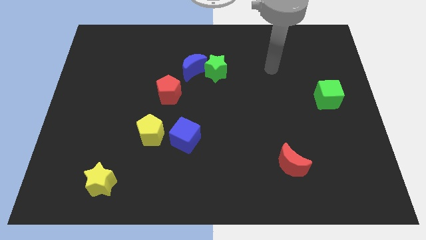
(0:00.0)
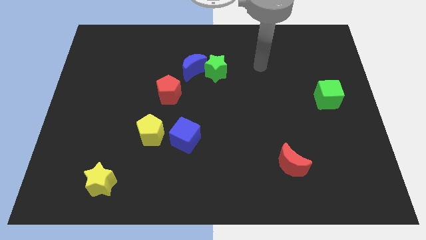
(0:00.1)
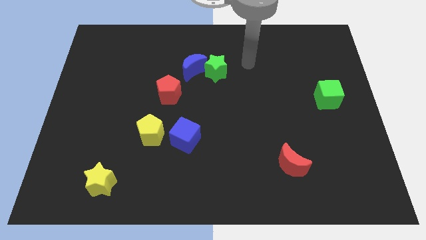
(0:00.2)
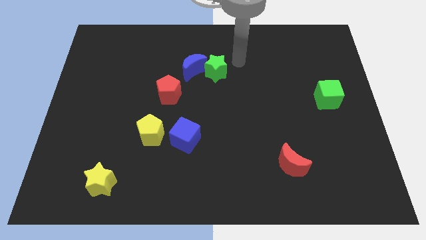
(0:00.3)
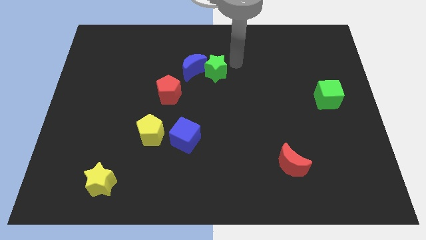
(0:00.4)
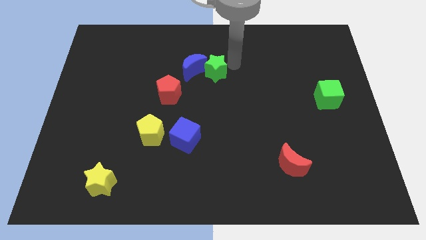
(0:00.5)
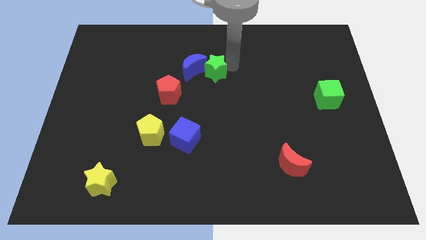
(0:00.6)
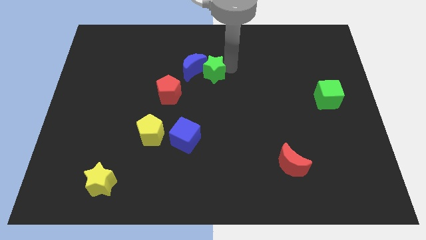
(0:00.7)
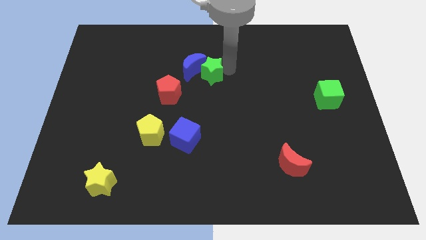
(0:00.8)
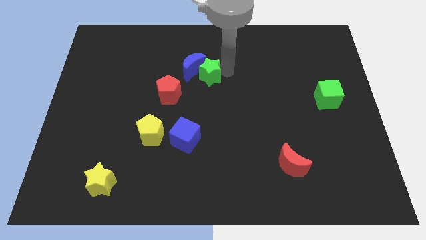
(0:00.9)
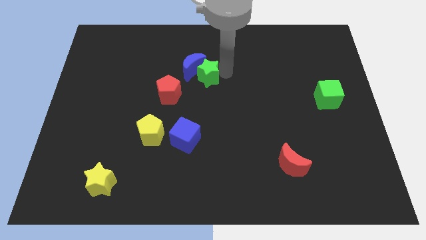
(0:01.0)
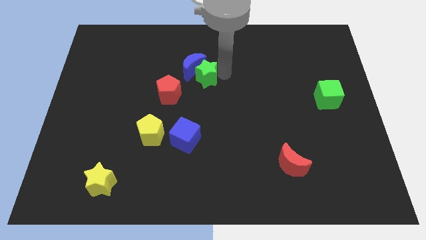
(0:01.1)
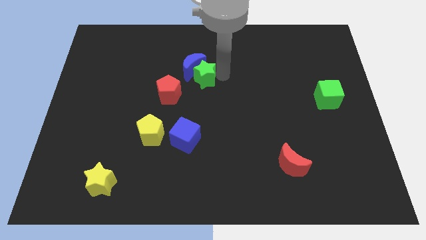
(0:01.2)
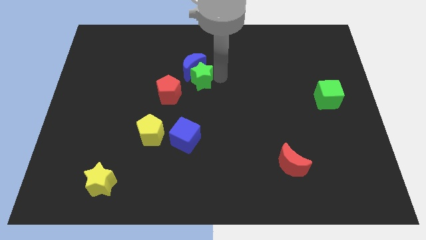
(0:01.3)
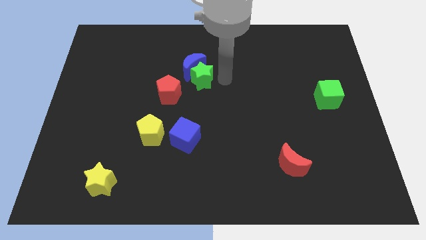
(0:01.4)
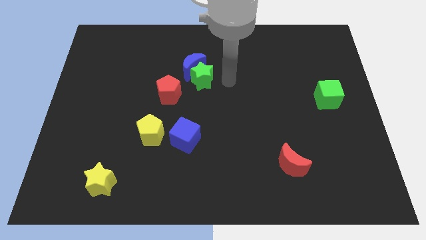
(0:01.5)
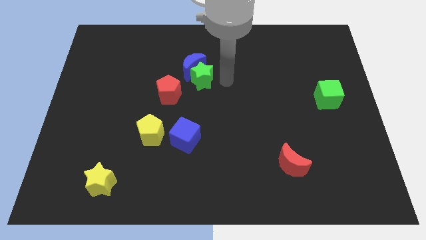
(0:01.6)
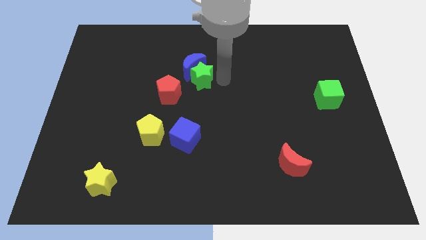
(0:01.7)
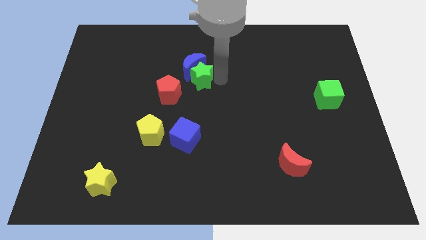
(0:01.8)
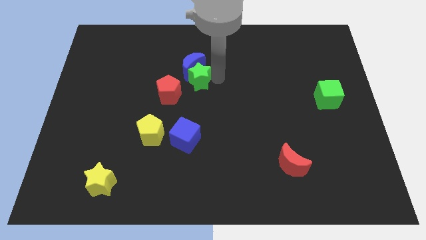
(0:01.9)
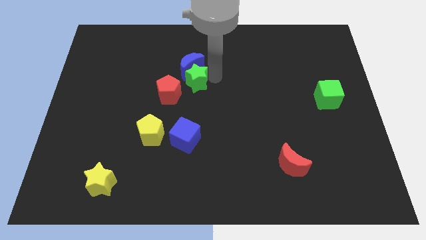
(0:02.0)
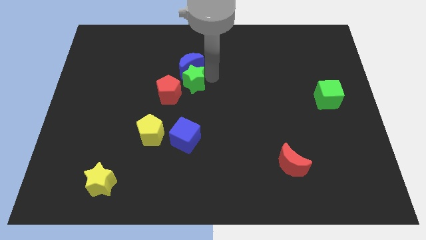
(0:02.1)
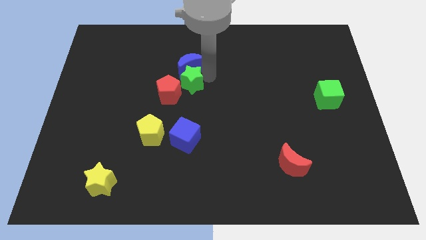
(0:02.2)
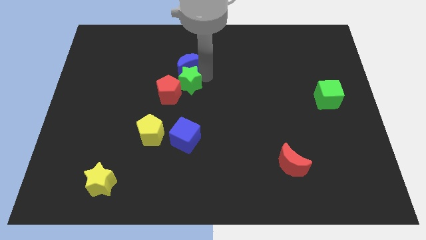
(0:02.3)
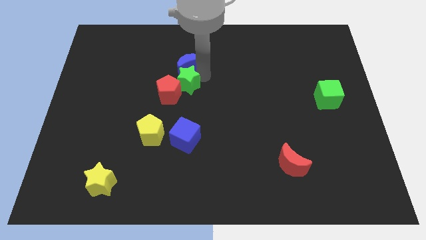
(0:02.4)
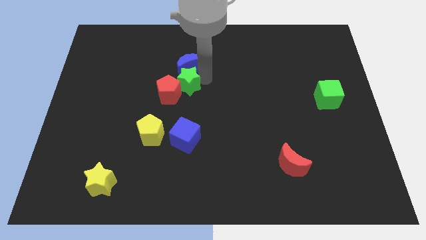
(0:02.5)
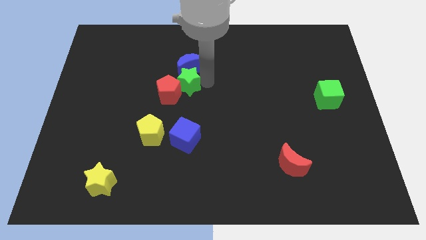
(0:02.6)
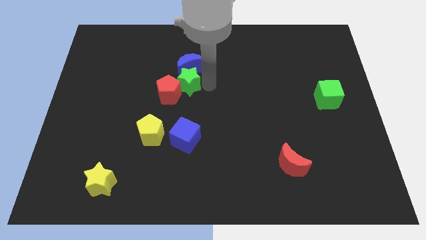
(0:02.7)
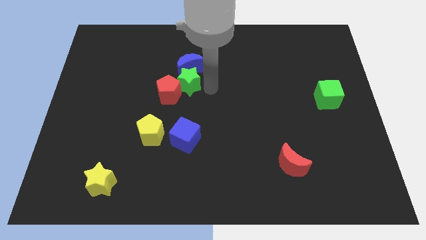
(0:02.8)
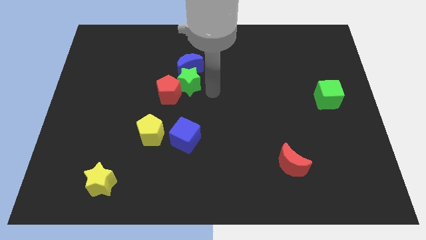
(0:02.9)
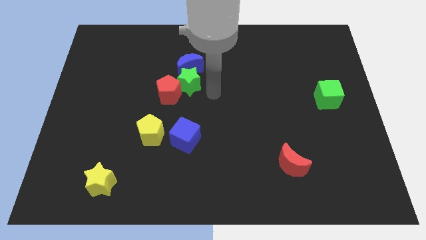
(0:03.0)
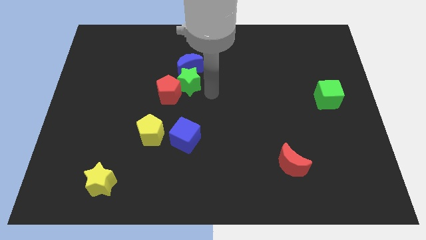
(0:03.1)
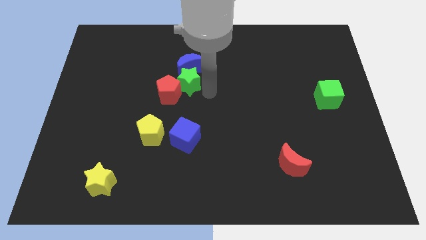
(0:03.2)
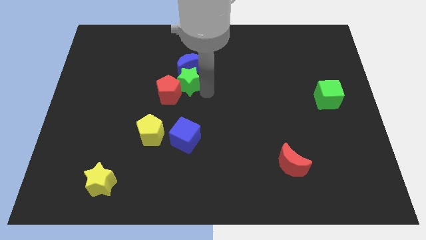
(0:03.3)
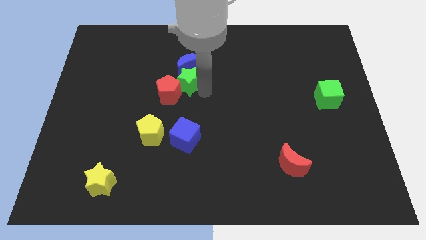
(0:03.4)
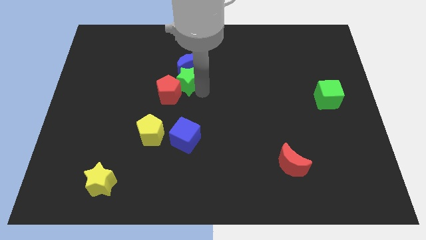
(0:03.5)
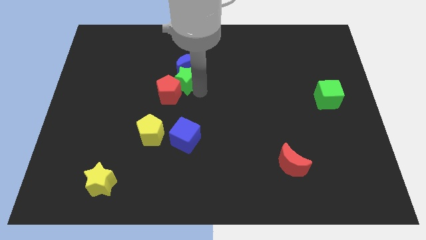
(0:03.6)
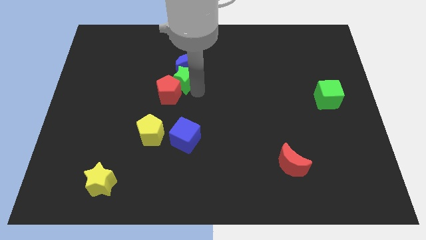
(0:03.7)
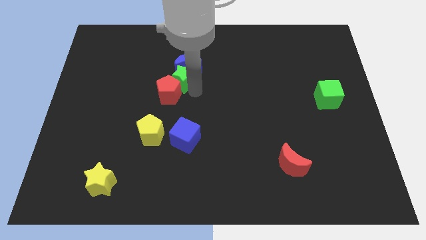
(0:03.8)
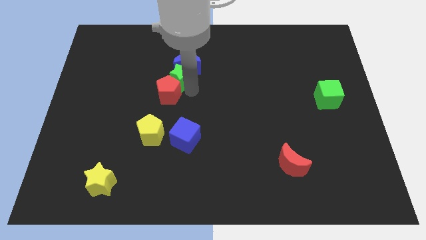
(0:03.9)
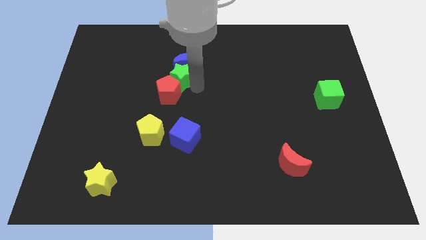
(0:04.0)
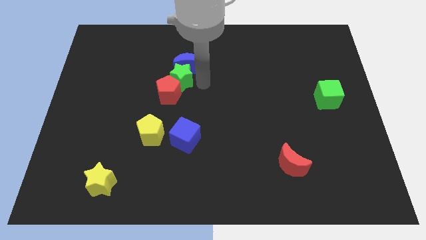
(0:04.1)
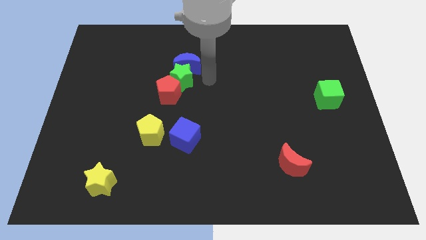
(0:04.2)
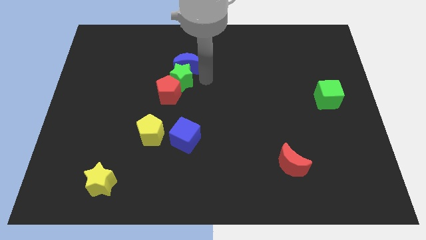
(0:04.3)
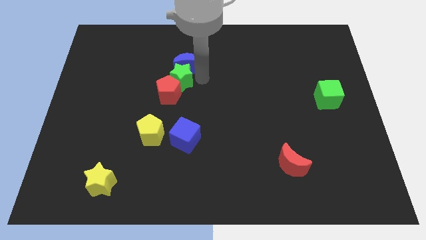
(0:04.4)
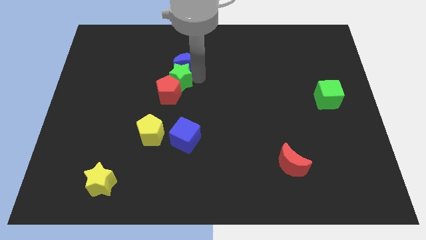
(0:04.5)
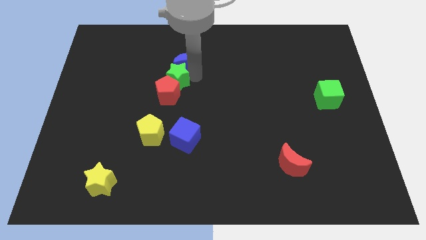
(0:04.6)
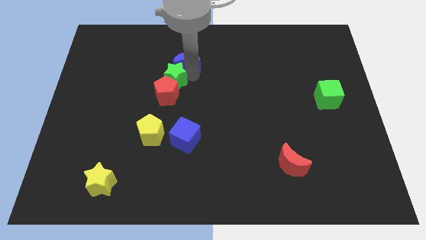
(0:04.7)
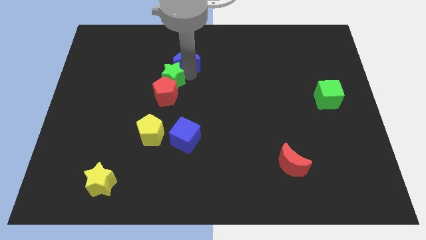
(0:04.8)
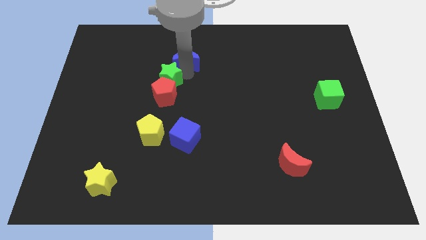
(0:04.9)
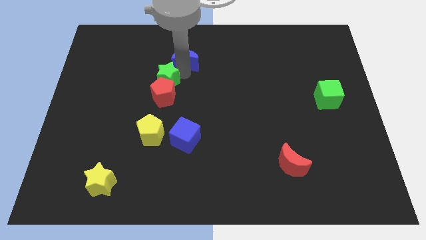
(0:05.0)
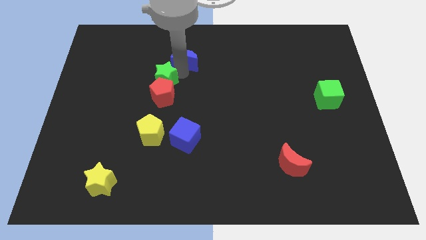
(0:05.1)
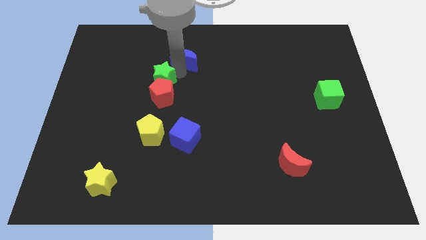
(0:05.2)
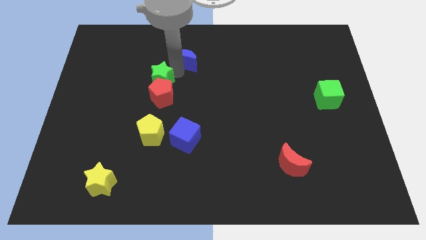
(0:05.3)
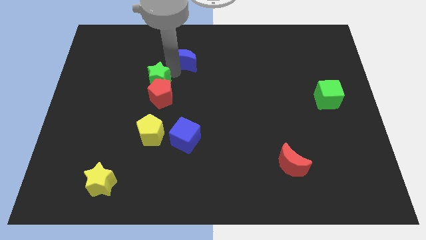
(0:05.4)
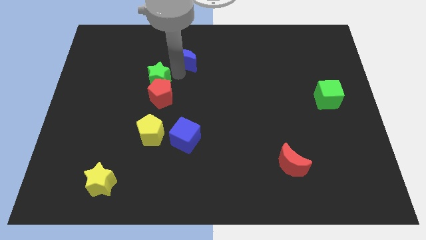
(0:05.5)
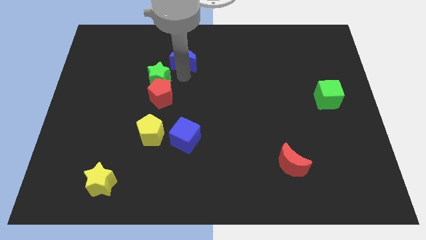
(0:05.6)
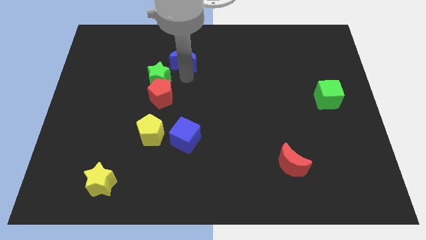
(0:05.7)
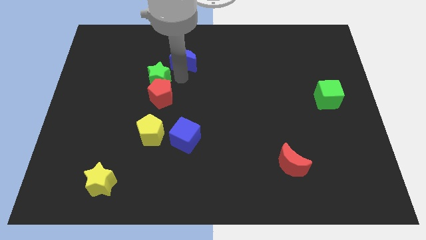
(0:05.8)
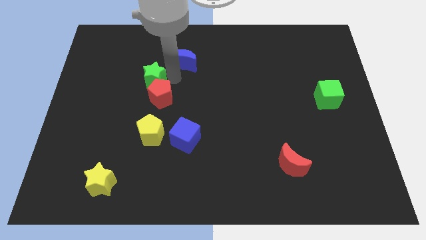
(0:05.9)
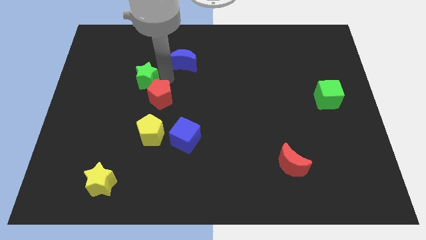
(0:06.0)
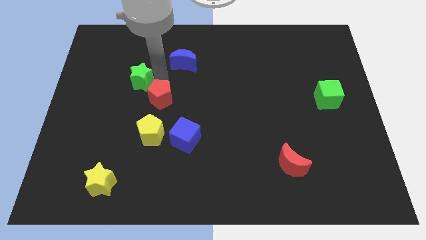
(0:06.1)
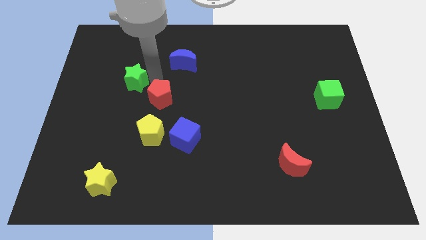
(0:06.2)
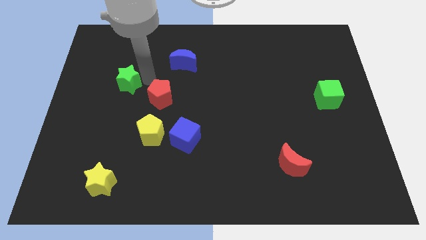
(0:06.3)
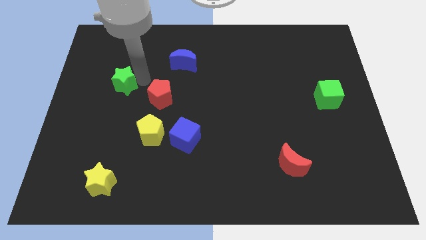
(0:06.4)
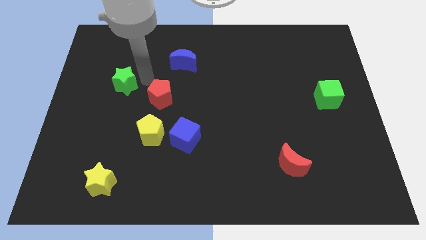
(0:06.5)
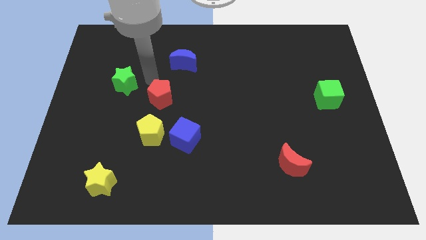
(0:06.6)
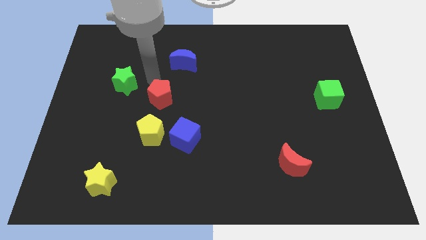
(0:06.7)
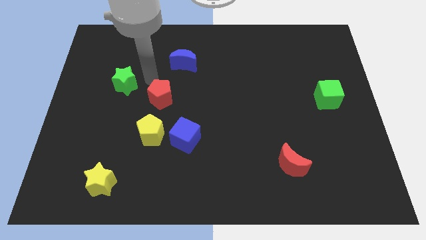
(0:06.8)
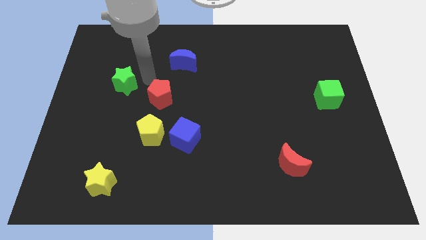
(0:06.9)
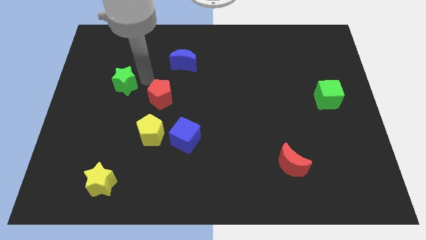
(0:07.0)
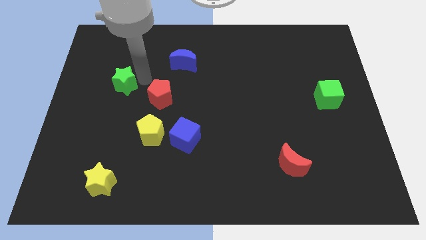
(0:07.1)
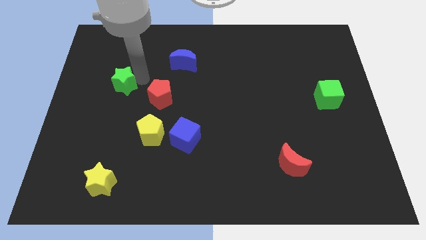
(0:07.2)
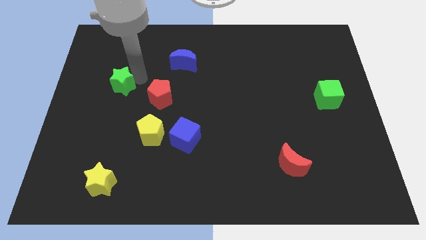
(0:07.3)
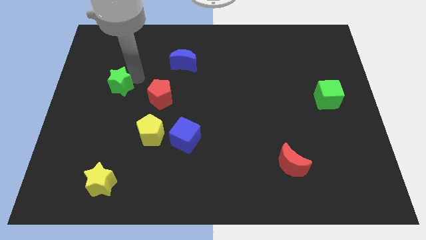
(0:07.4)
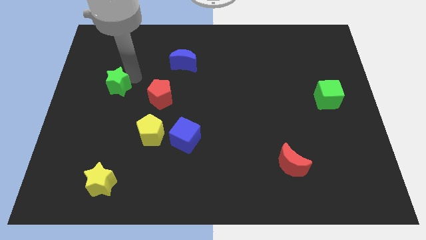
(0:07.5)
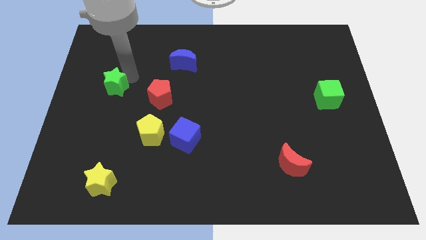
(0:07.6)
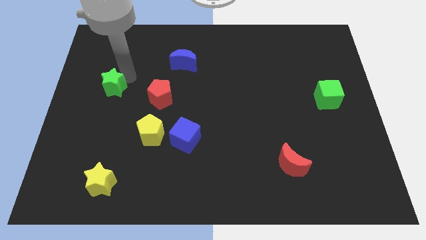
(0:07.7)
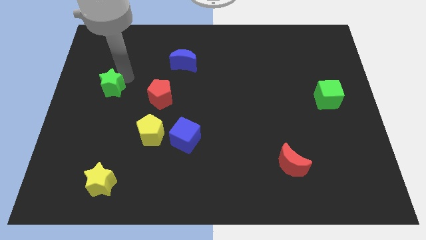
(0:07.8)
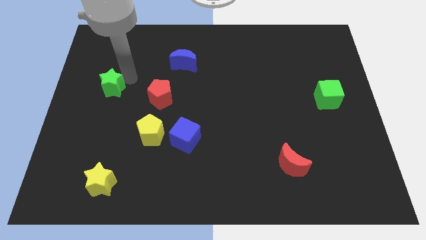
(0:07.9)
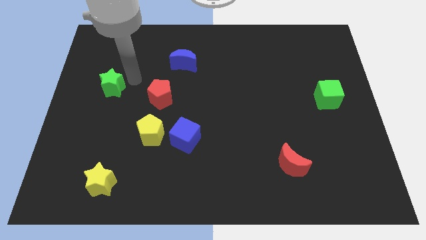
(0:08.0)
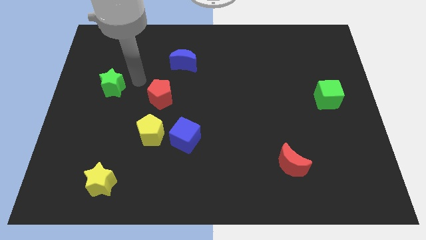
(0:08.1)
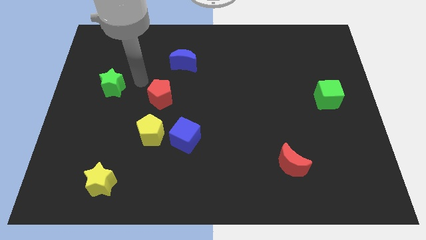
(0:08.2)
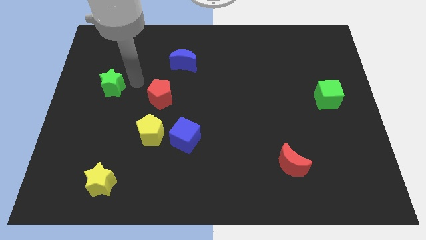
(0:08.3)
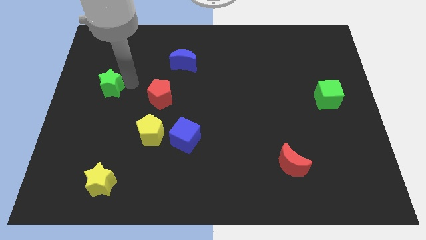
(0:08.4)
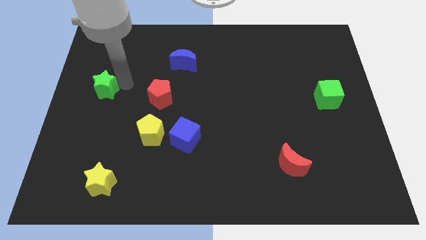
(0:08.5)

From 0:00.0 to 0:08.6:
slide the green star to the left side of the board
